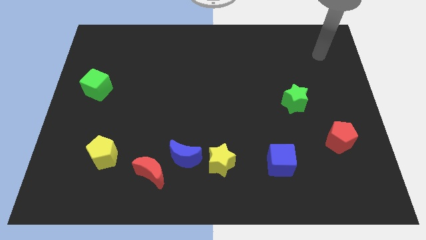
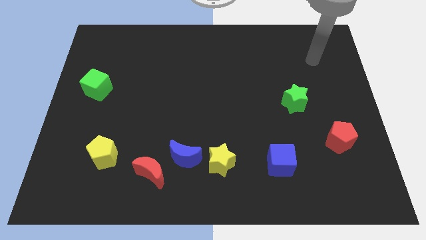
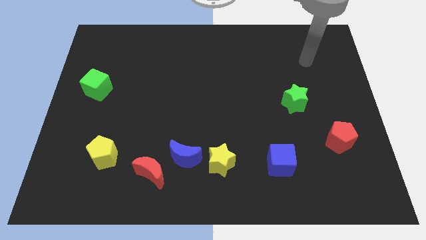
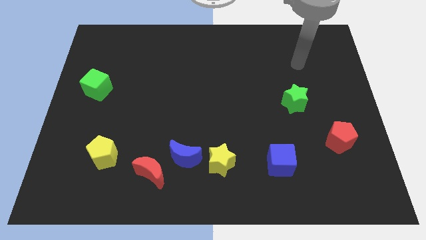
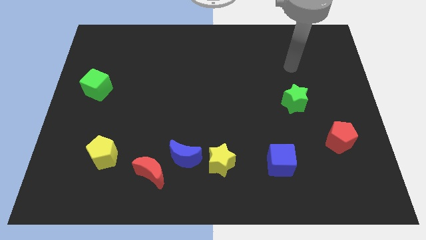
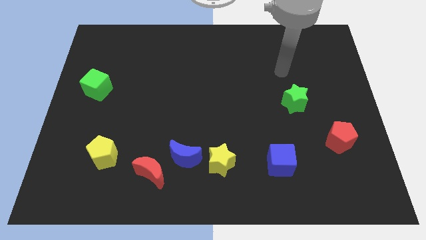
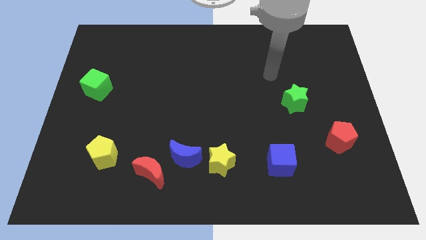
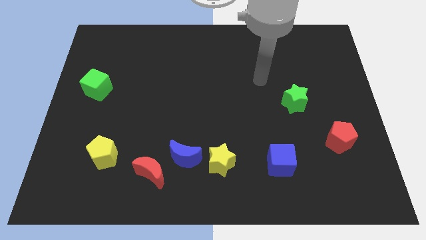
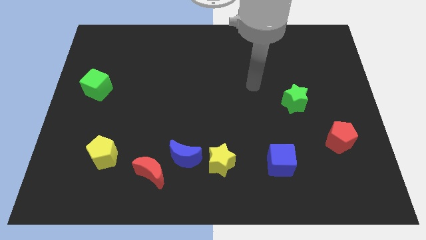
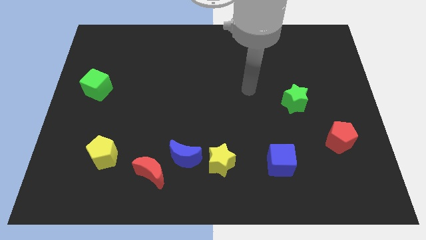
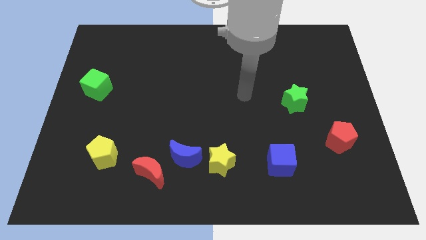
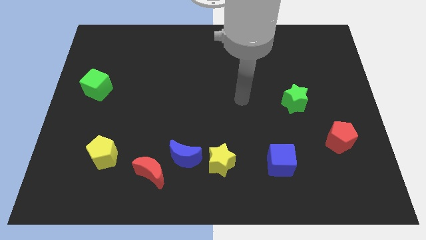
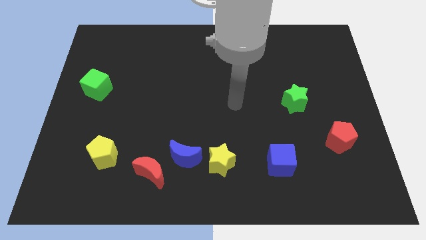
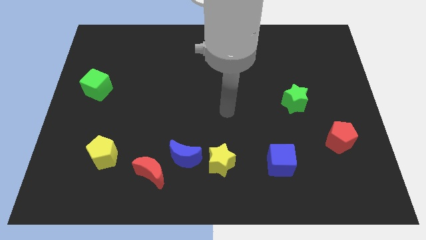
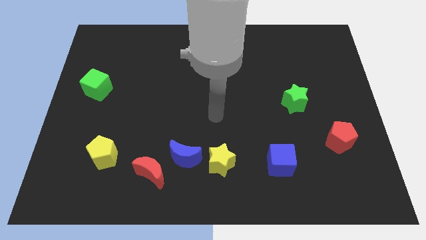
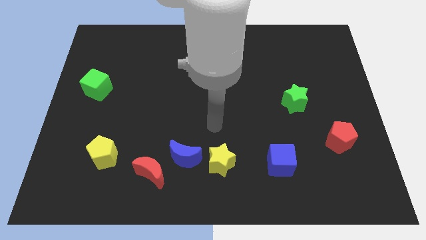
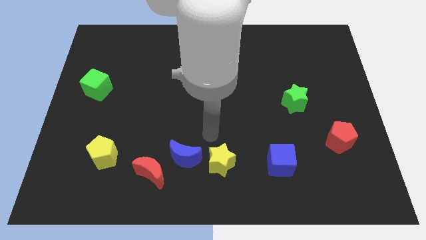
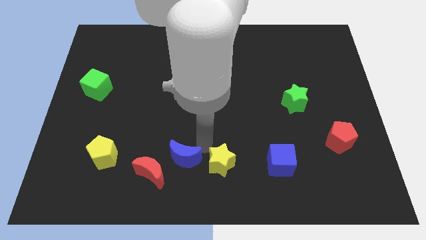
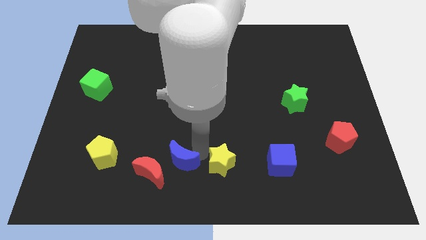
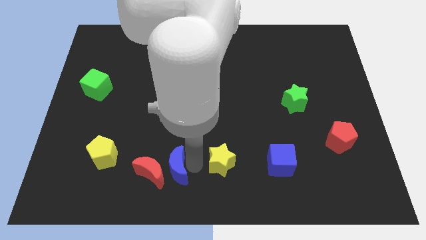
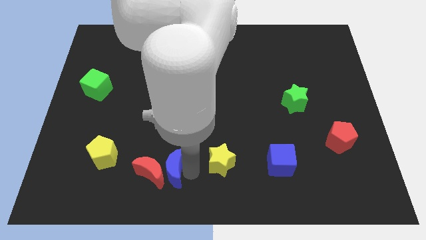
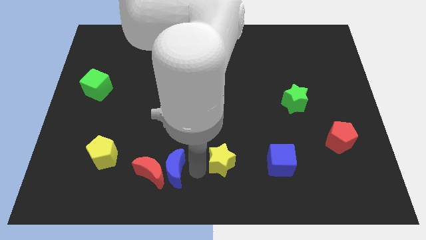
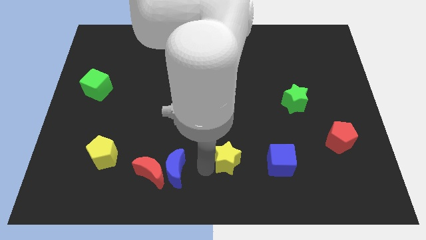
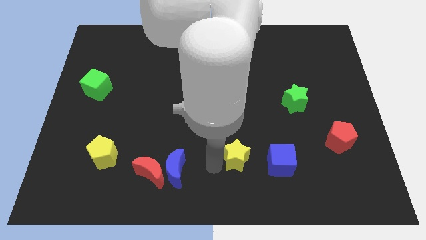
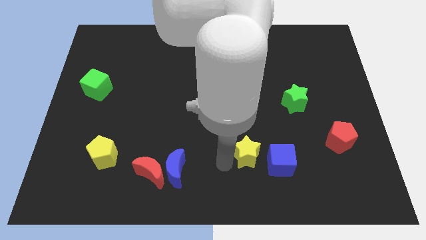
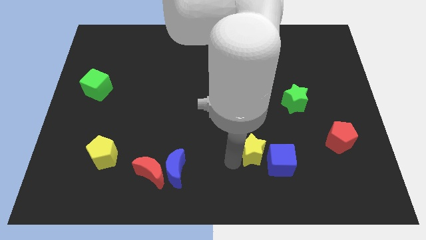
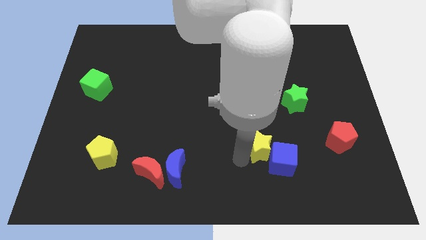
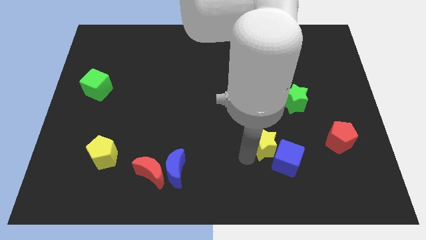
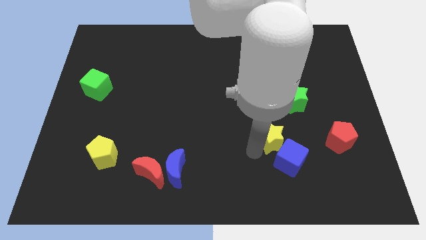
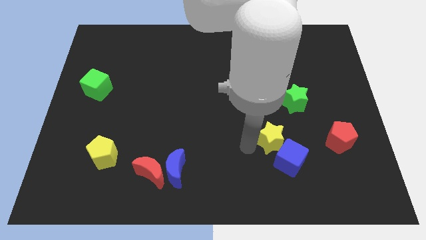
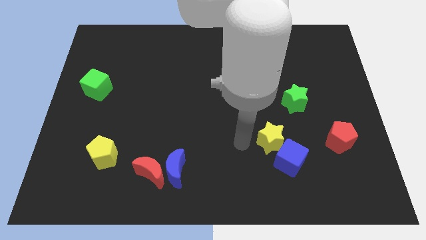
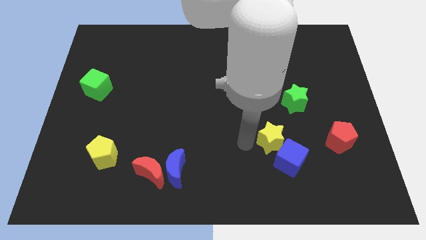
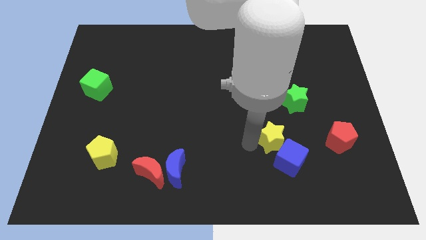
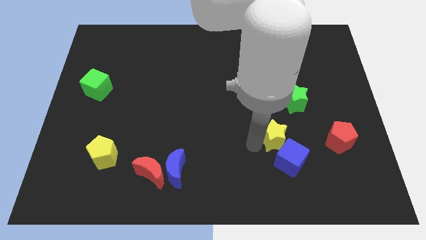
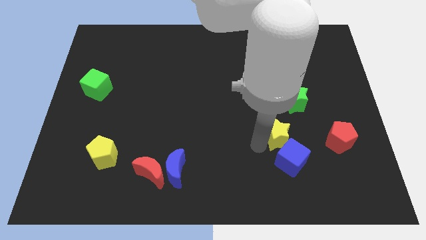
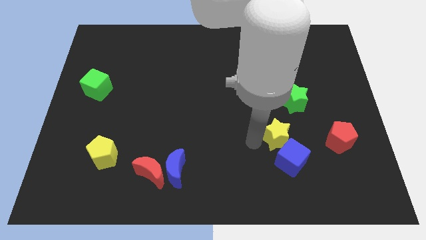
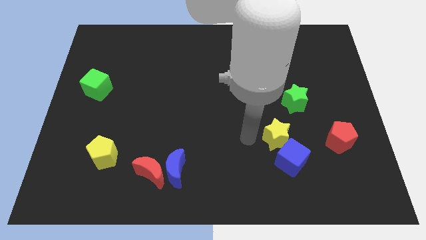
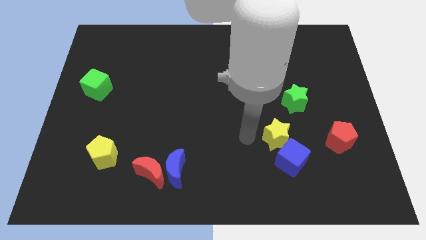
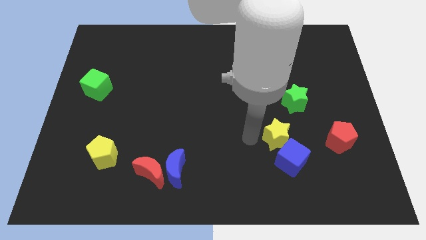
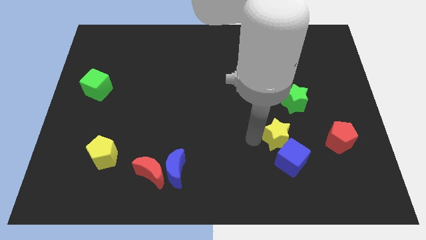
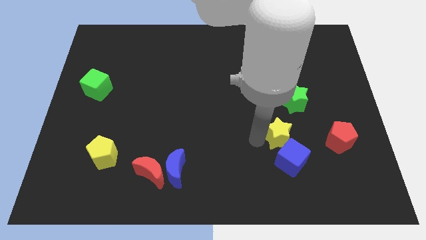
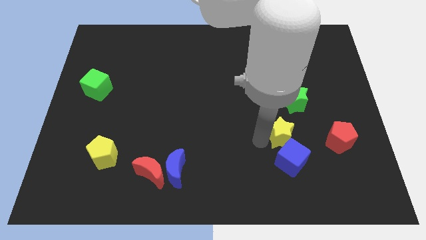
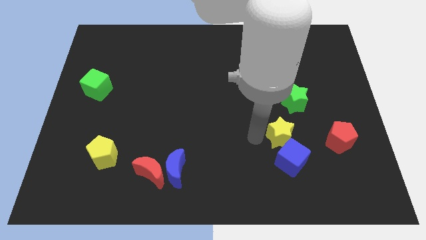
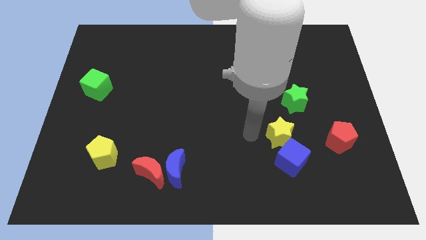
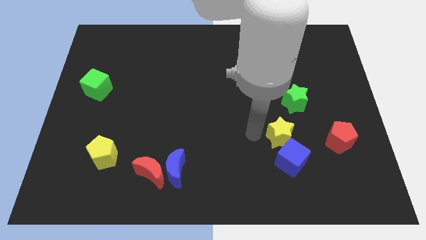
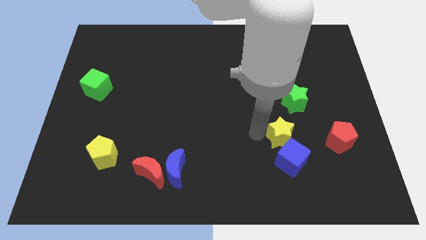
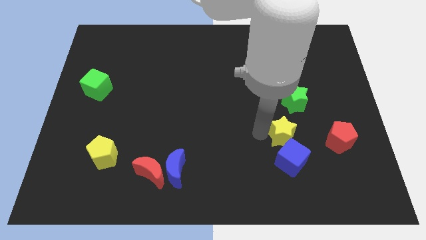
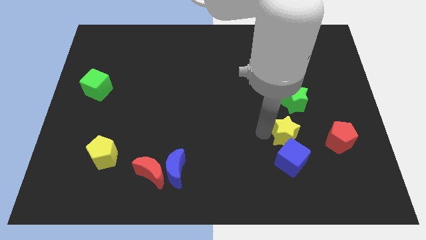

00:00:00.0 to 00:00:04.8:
slide the yellow star diagonally up and to the right of the blue cube

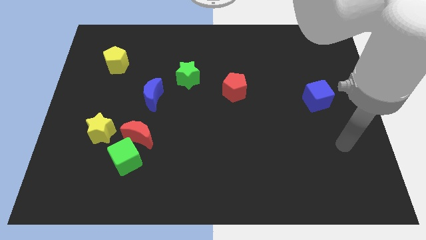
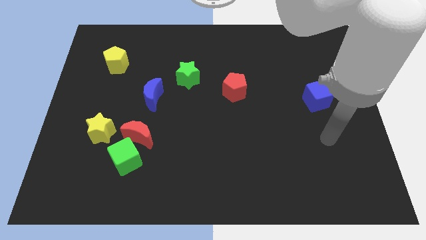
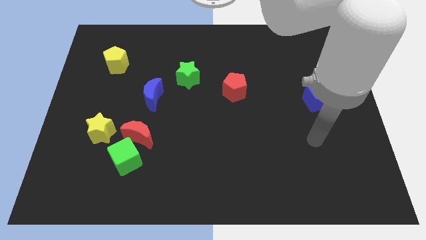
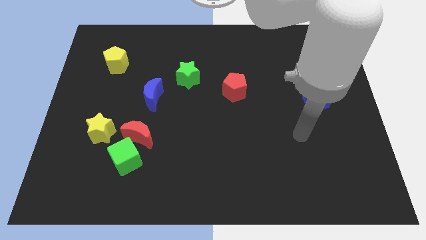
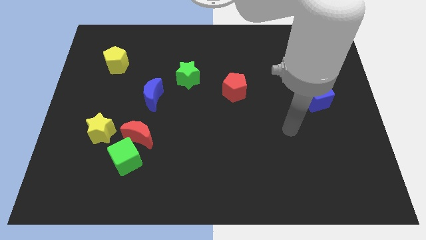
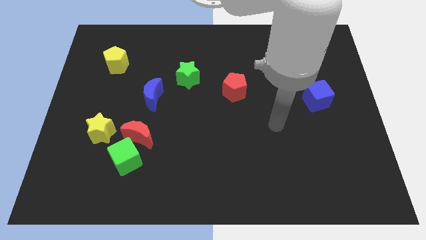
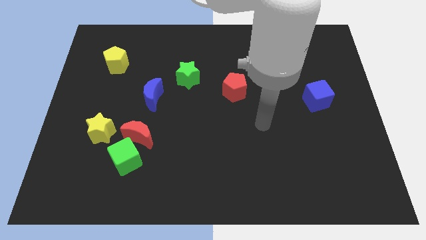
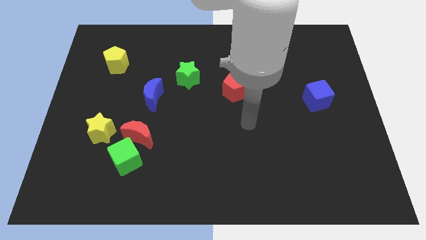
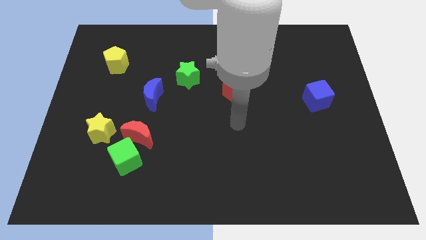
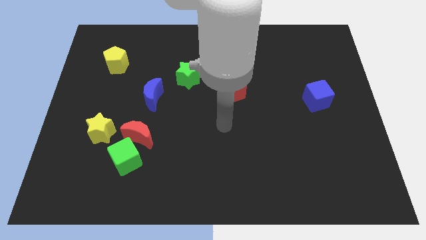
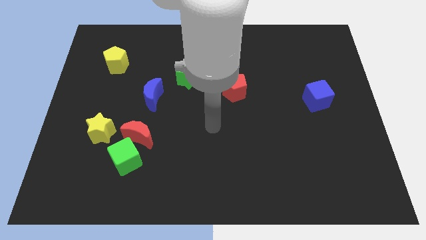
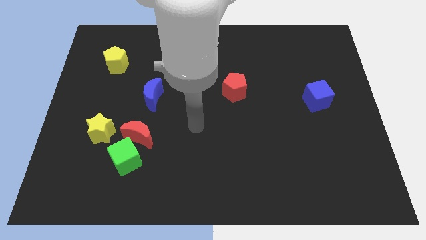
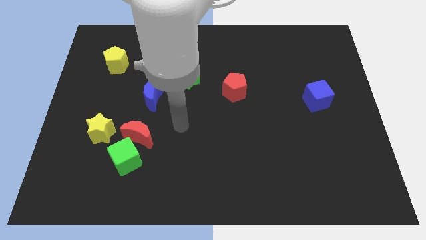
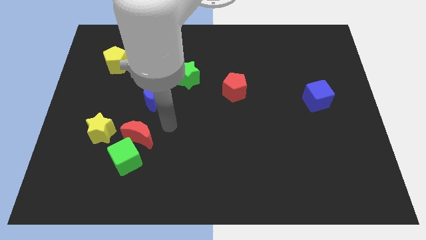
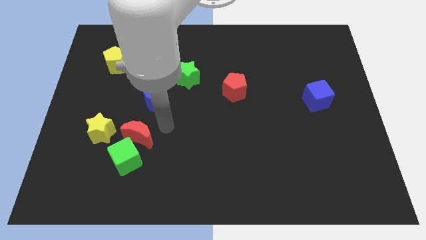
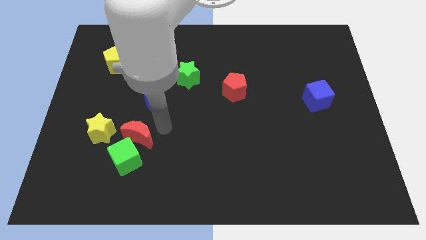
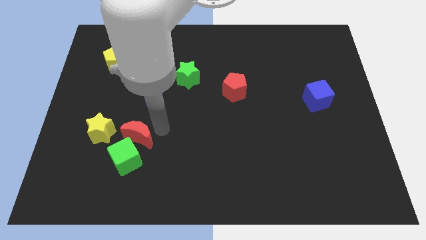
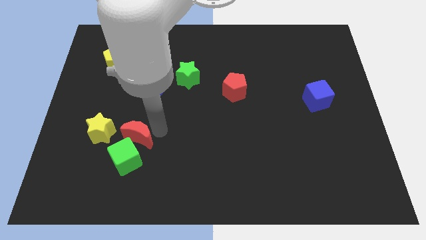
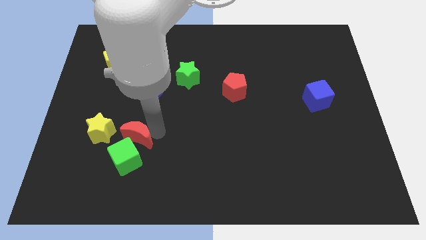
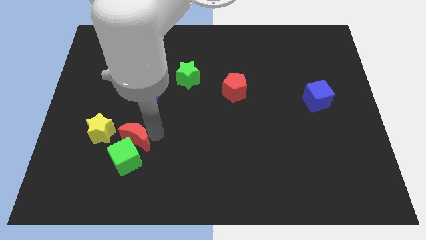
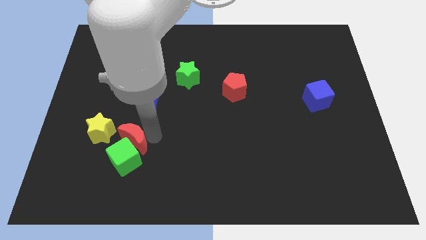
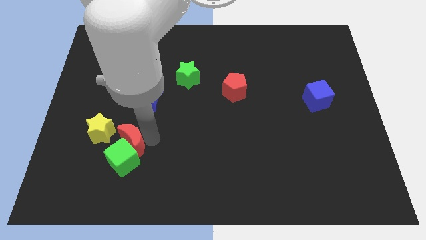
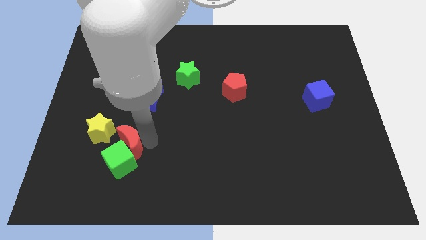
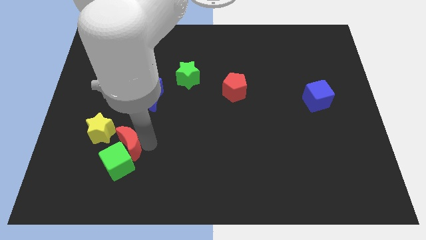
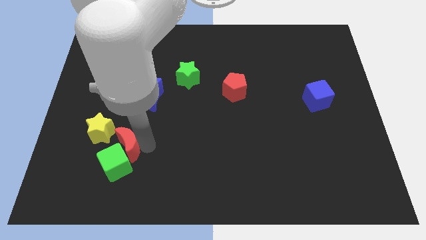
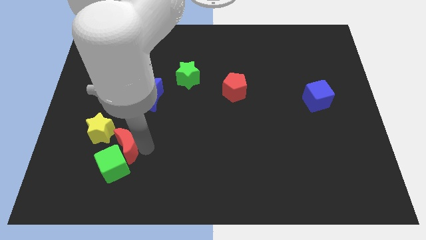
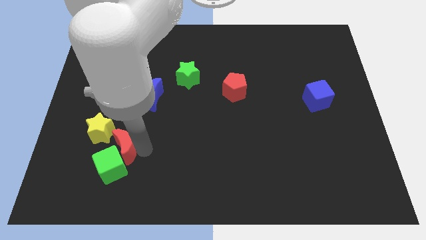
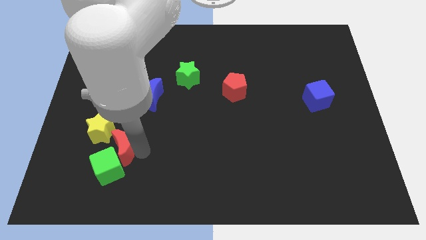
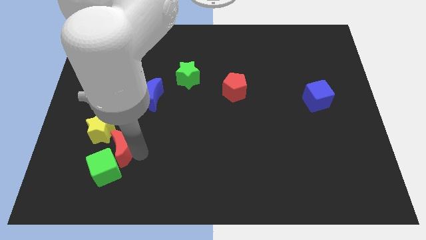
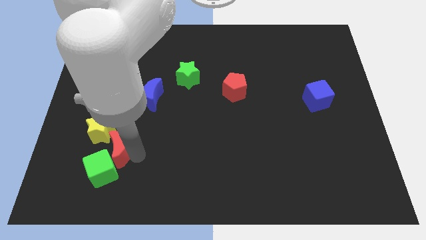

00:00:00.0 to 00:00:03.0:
move the red moon to the bottom side of the yellow star
